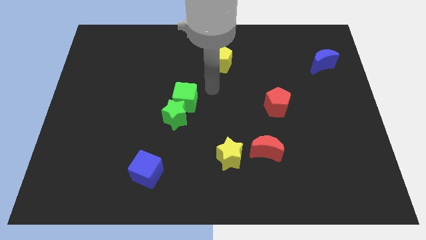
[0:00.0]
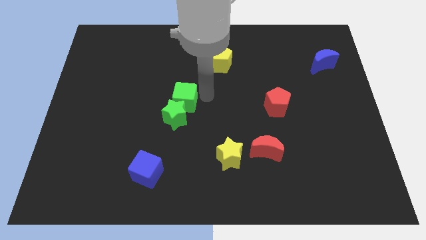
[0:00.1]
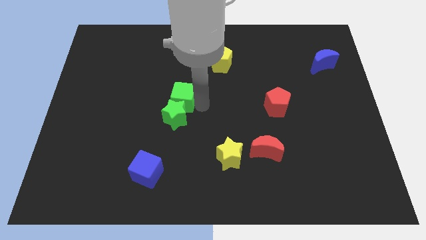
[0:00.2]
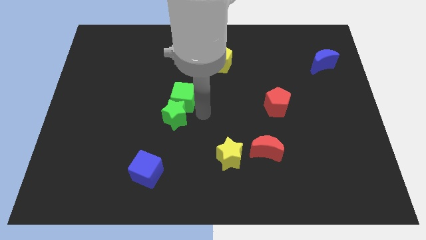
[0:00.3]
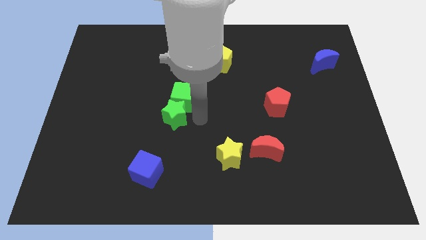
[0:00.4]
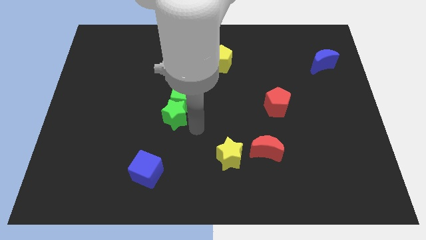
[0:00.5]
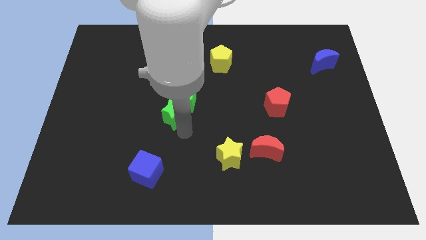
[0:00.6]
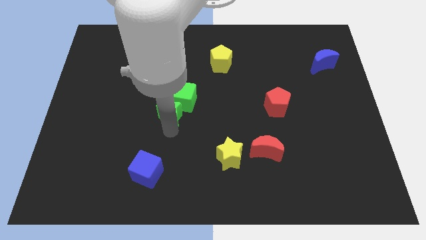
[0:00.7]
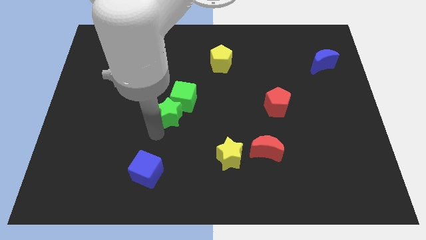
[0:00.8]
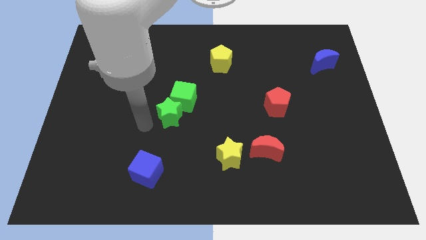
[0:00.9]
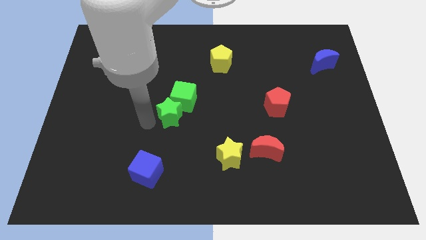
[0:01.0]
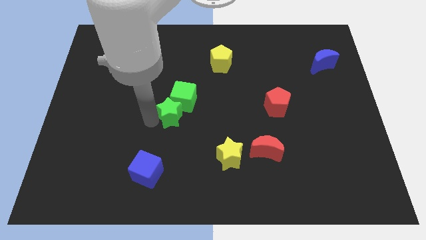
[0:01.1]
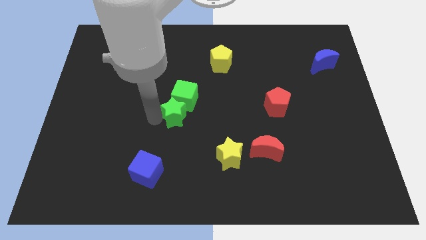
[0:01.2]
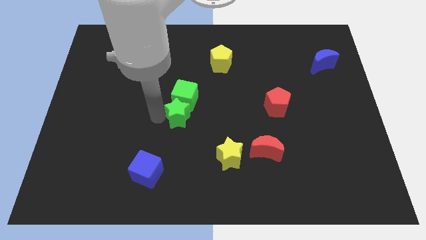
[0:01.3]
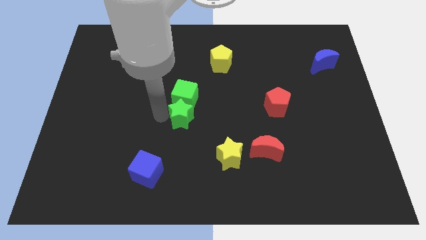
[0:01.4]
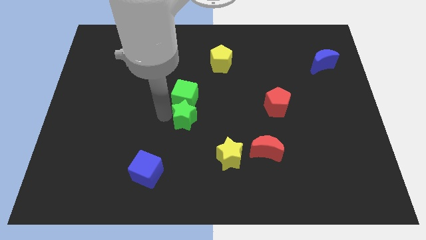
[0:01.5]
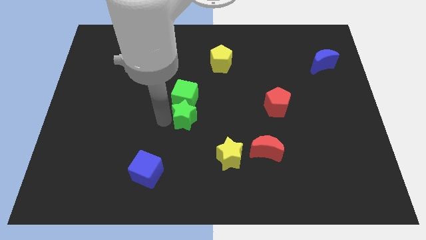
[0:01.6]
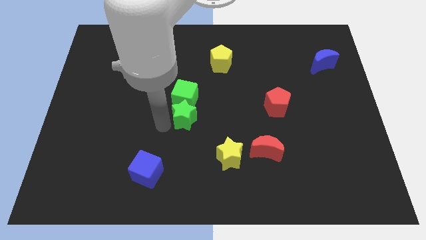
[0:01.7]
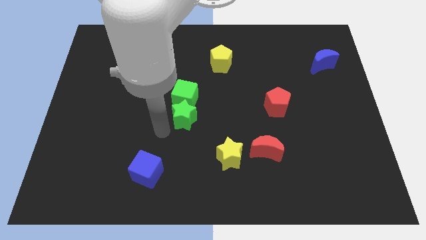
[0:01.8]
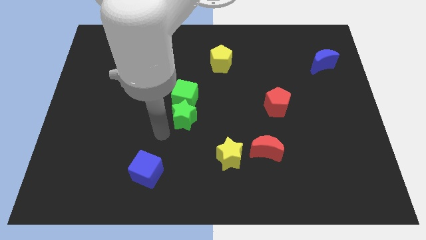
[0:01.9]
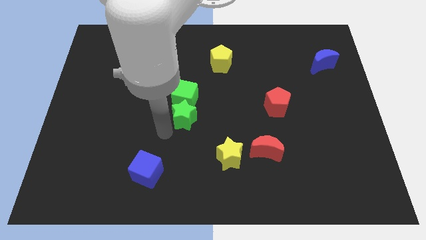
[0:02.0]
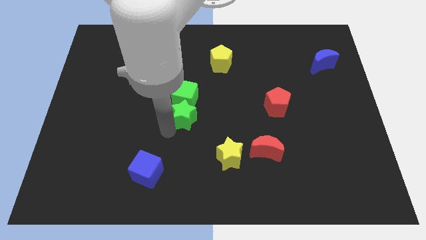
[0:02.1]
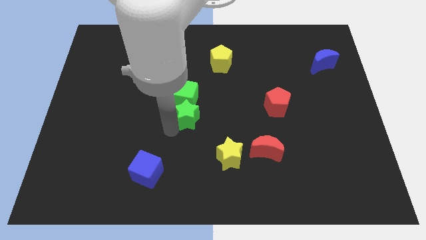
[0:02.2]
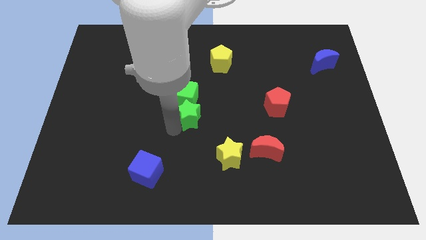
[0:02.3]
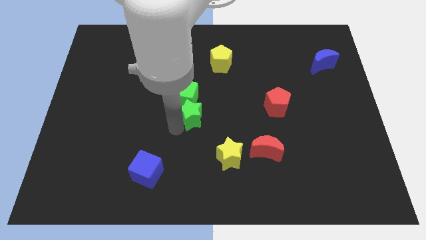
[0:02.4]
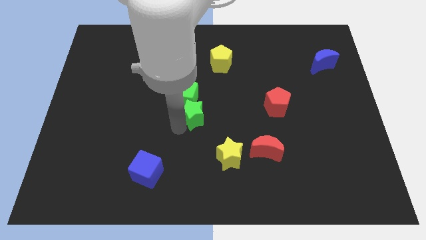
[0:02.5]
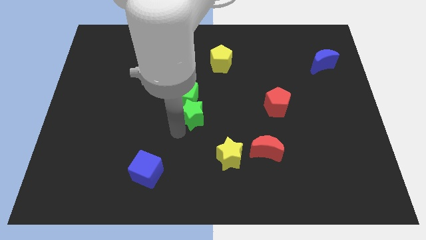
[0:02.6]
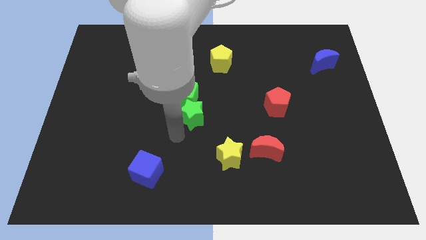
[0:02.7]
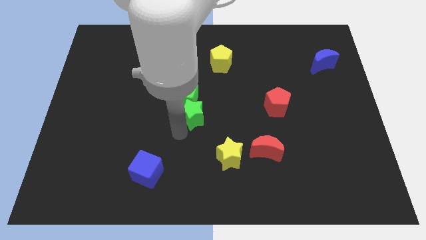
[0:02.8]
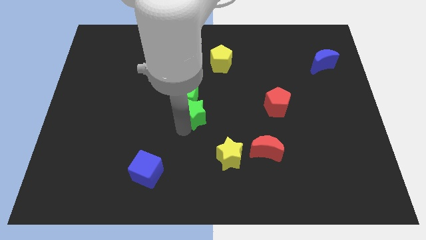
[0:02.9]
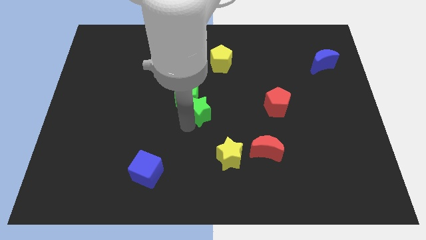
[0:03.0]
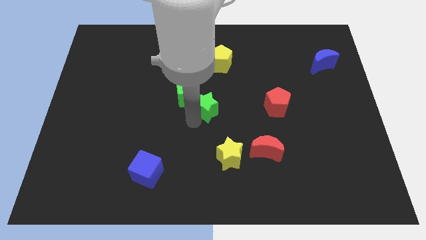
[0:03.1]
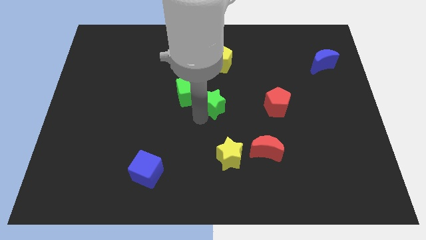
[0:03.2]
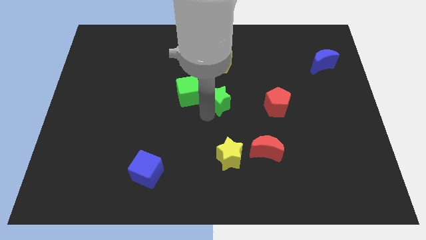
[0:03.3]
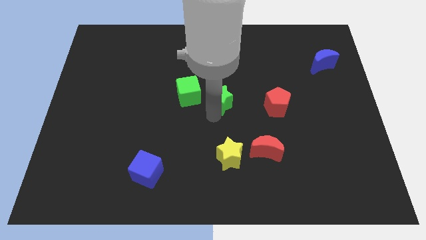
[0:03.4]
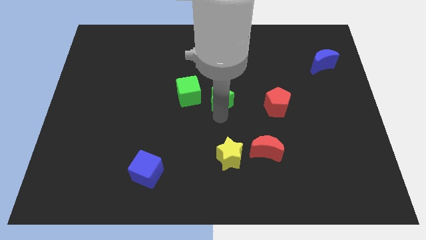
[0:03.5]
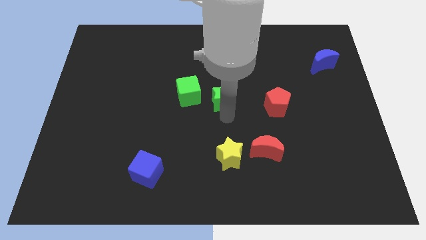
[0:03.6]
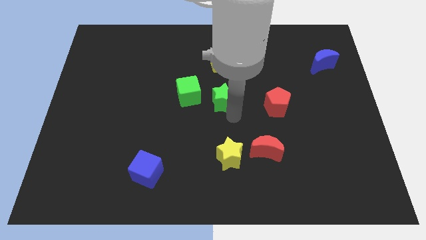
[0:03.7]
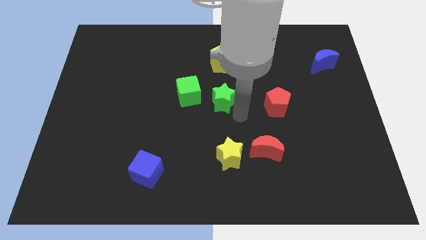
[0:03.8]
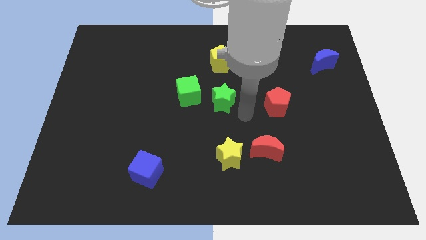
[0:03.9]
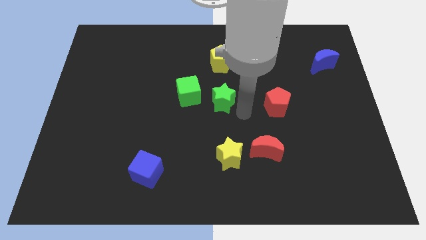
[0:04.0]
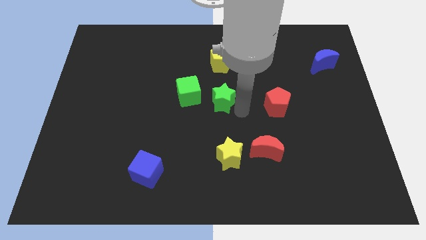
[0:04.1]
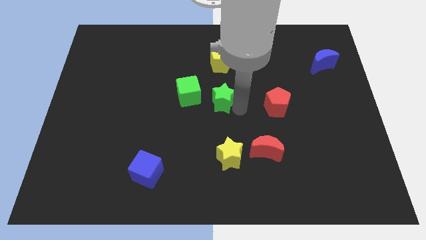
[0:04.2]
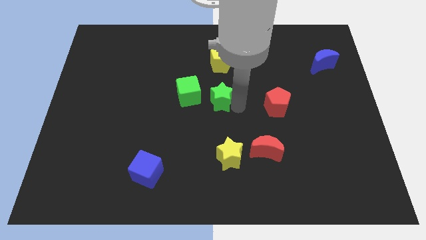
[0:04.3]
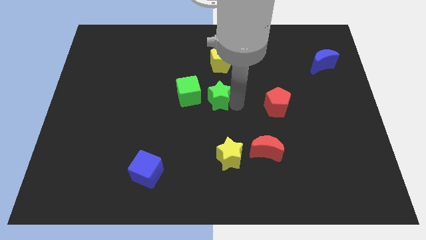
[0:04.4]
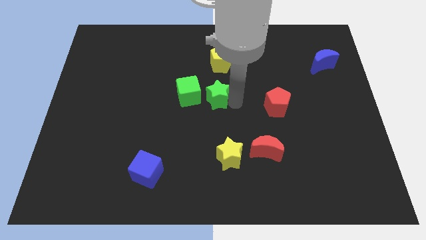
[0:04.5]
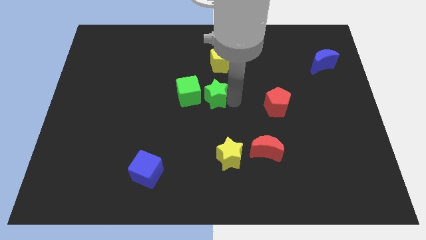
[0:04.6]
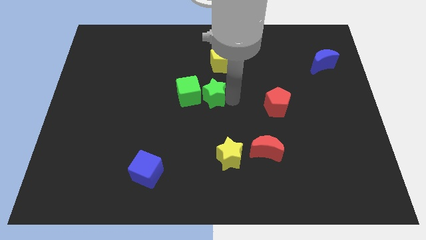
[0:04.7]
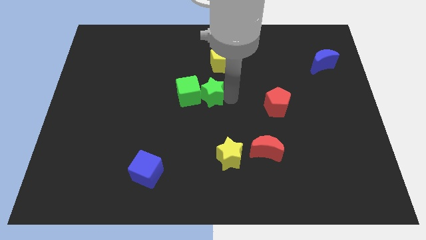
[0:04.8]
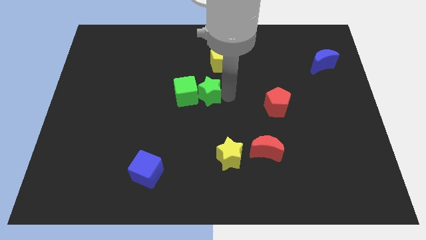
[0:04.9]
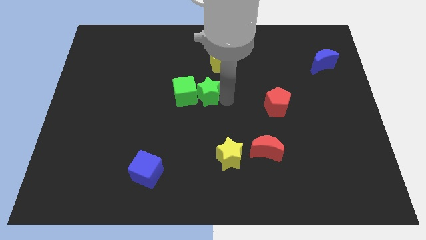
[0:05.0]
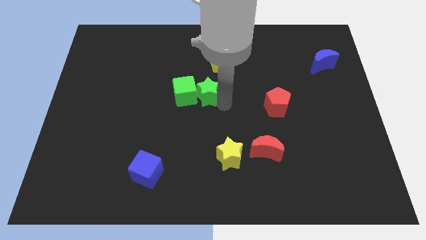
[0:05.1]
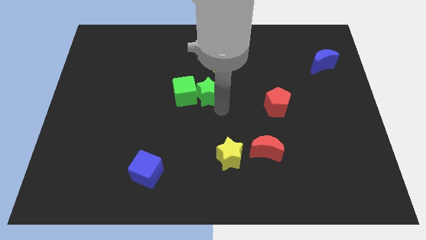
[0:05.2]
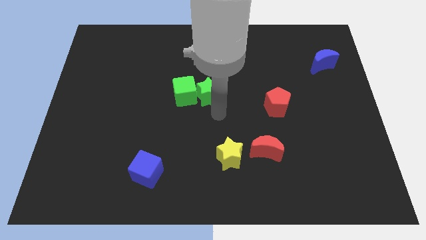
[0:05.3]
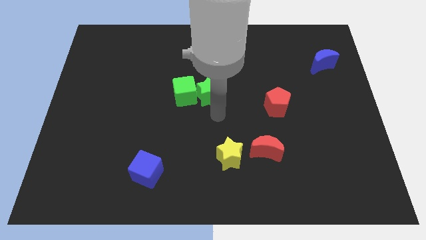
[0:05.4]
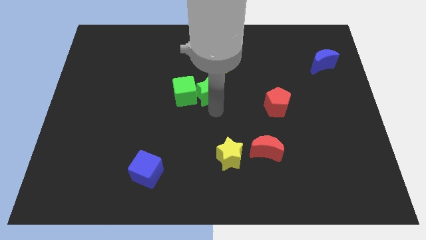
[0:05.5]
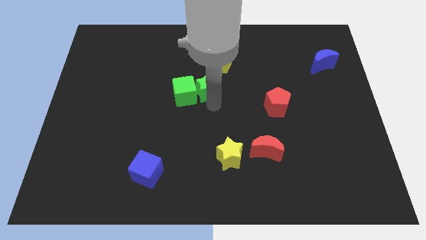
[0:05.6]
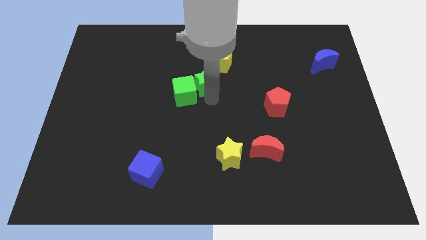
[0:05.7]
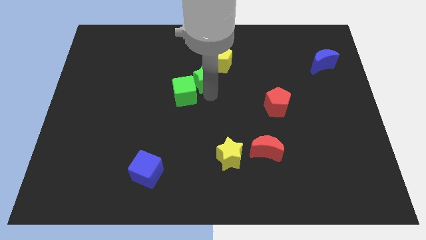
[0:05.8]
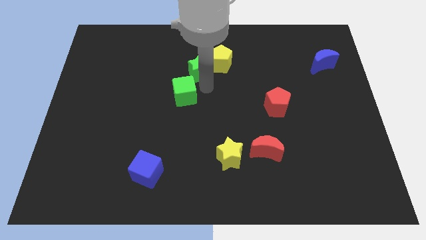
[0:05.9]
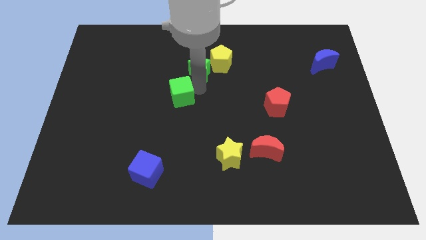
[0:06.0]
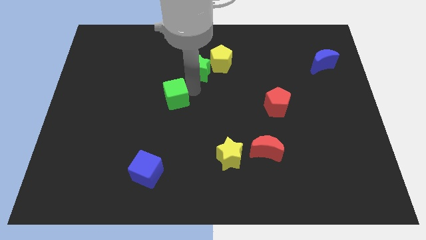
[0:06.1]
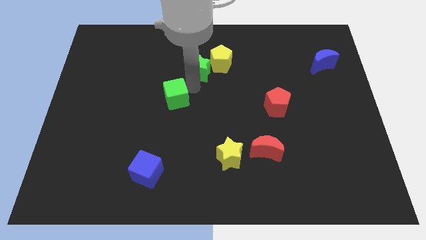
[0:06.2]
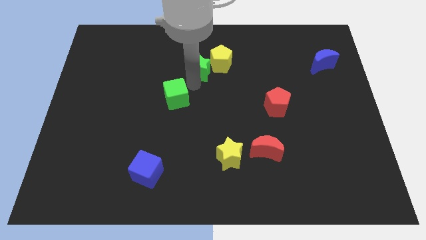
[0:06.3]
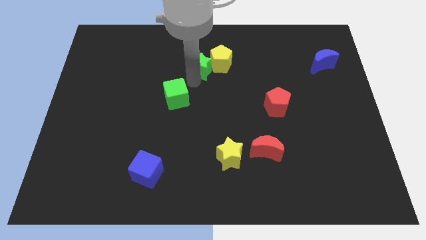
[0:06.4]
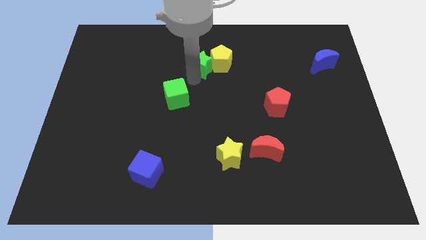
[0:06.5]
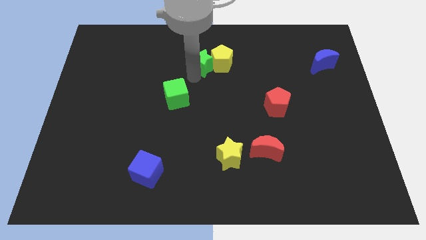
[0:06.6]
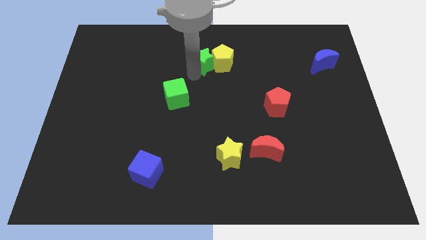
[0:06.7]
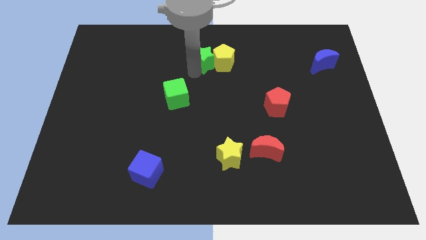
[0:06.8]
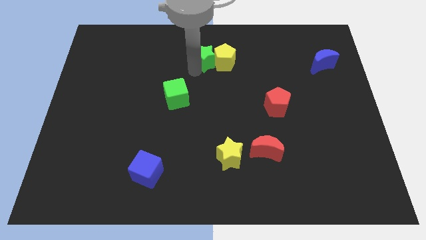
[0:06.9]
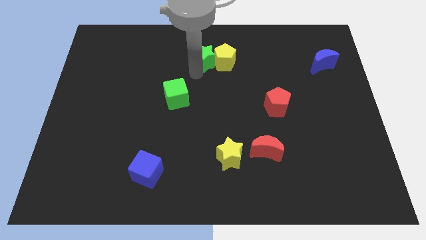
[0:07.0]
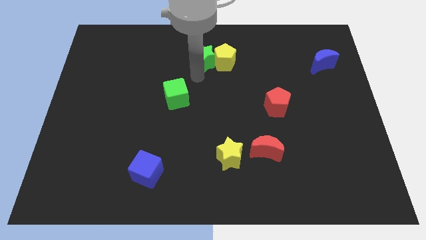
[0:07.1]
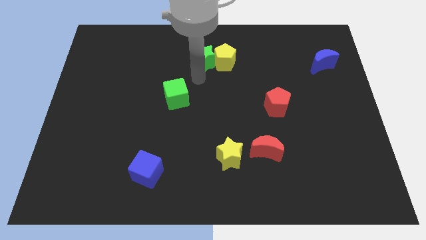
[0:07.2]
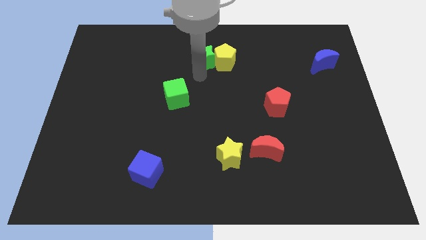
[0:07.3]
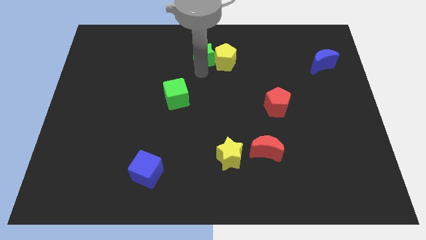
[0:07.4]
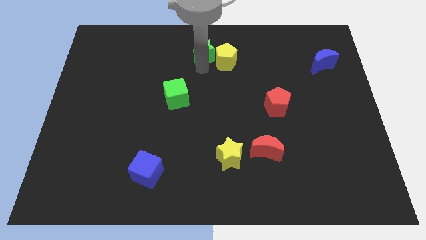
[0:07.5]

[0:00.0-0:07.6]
put the green star to the towards your base
